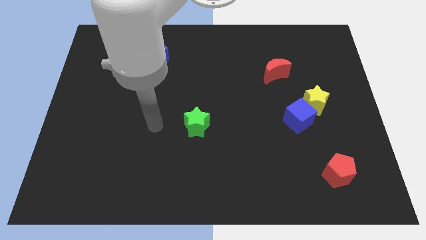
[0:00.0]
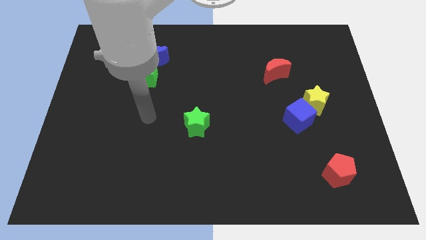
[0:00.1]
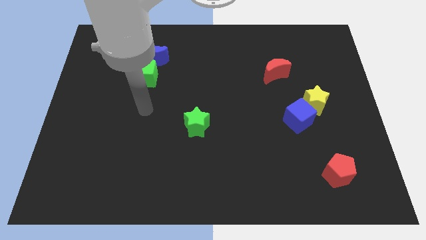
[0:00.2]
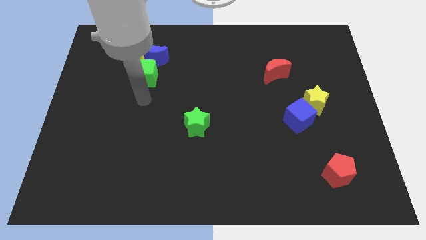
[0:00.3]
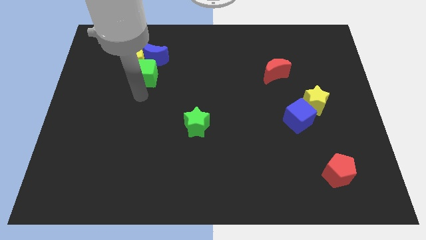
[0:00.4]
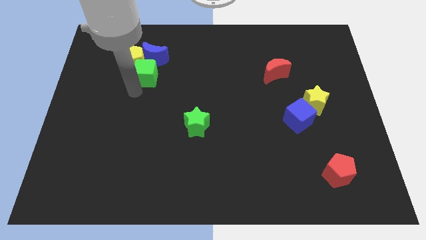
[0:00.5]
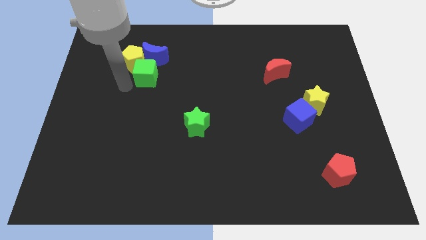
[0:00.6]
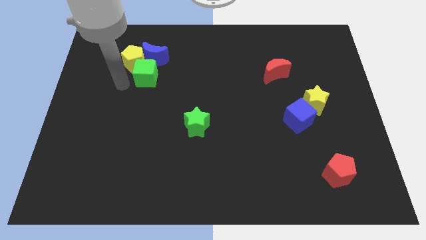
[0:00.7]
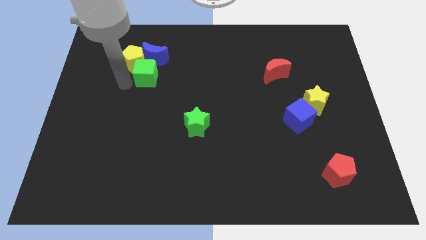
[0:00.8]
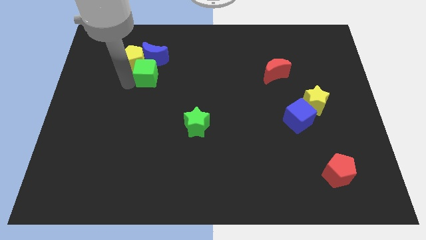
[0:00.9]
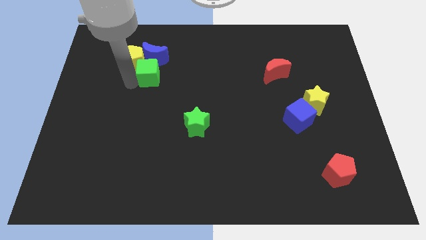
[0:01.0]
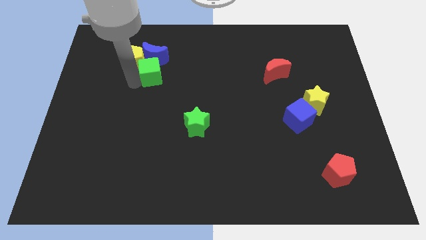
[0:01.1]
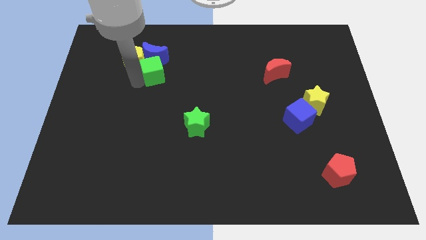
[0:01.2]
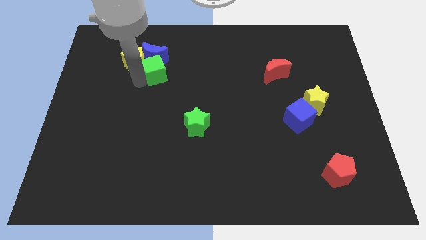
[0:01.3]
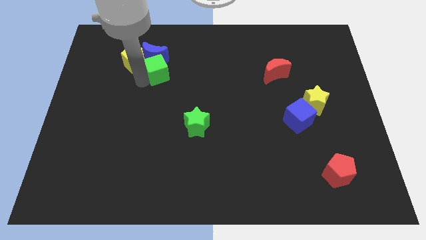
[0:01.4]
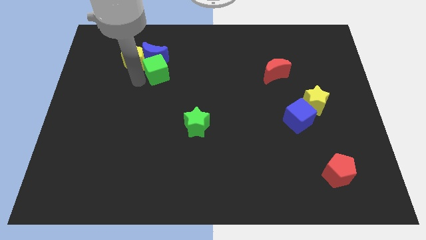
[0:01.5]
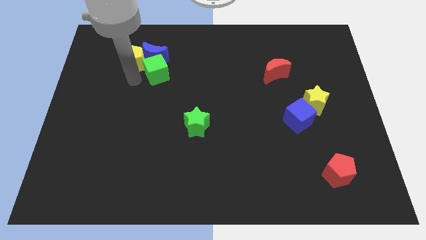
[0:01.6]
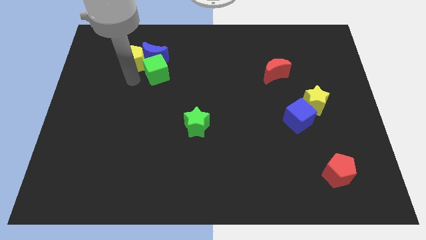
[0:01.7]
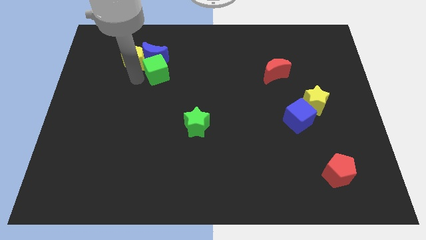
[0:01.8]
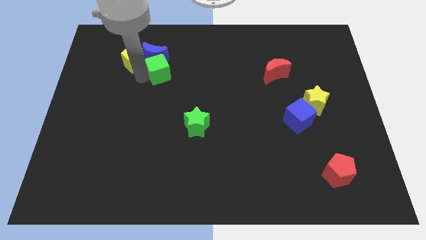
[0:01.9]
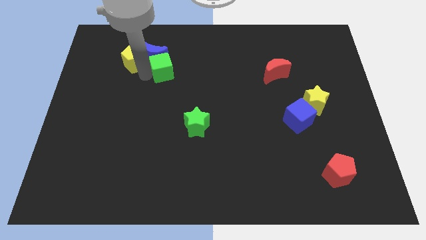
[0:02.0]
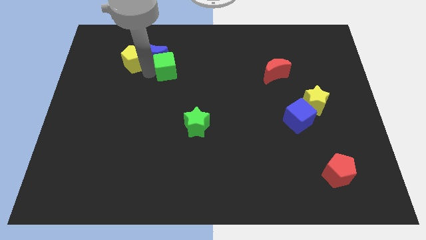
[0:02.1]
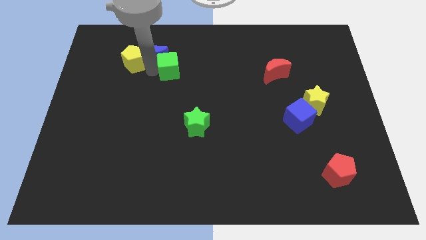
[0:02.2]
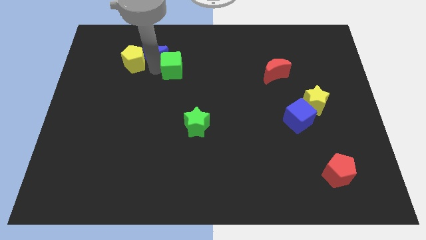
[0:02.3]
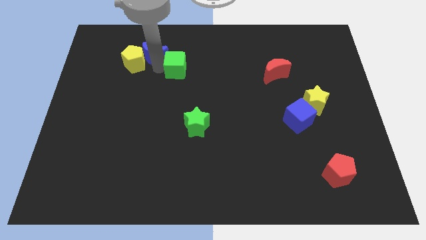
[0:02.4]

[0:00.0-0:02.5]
push the green cube a little to the right

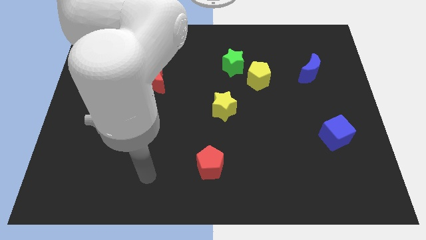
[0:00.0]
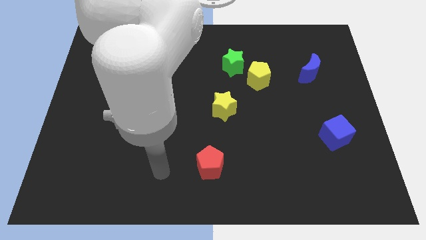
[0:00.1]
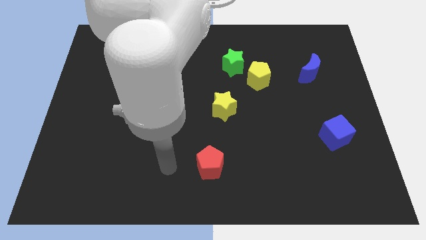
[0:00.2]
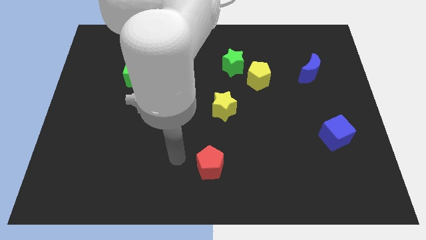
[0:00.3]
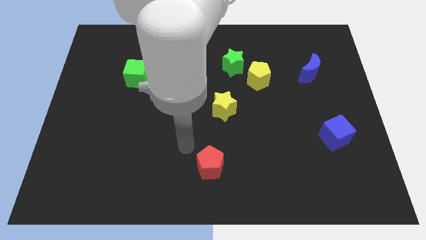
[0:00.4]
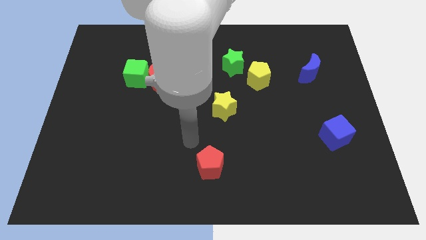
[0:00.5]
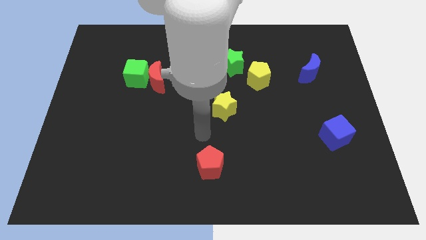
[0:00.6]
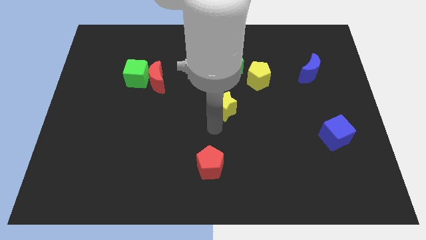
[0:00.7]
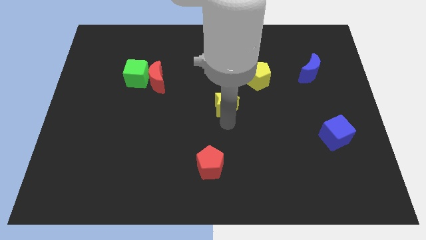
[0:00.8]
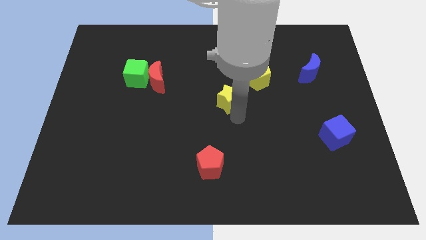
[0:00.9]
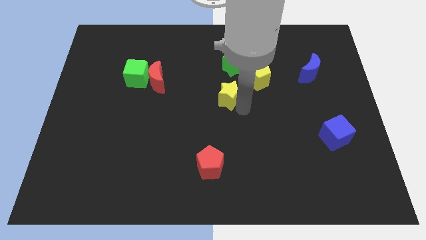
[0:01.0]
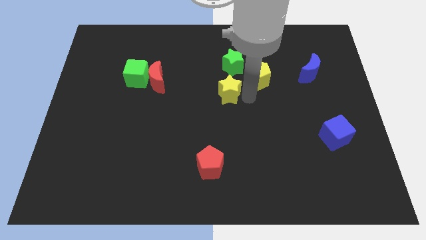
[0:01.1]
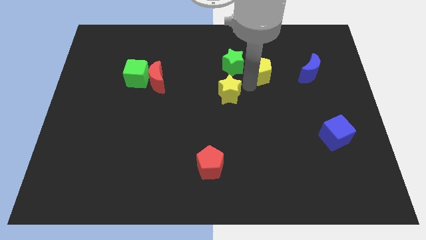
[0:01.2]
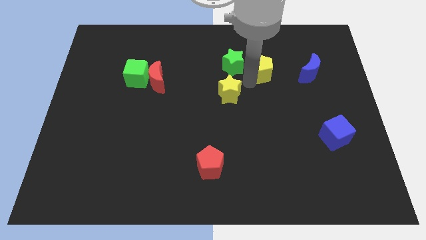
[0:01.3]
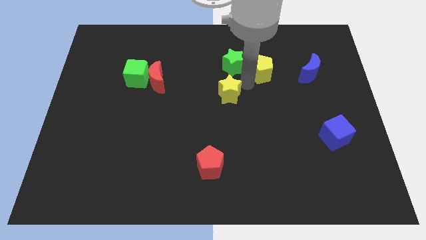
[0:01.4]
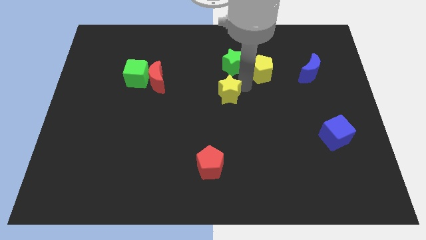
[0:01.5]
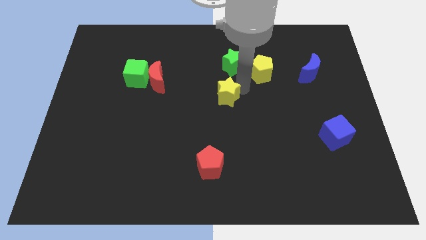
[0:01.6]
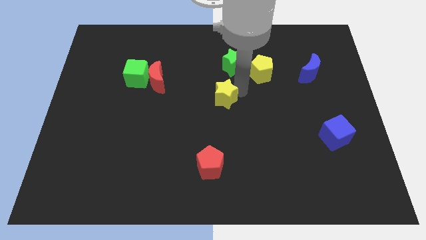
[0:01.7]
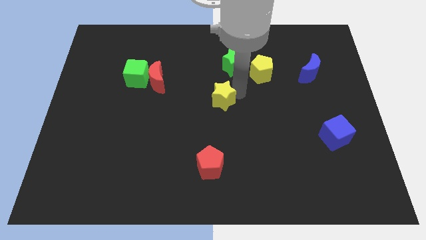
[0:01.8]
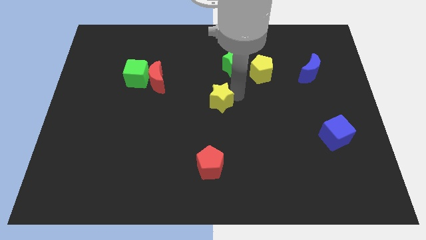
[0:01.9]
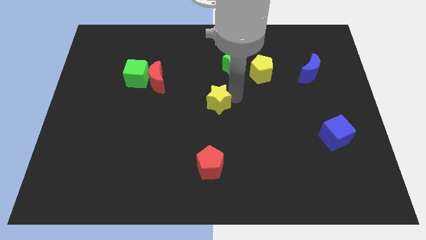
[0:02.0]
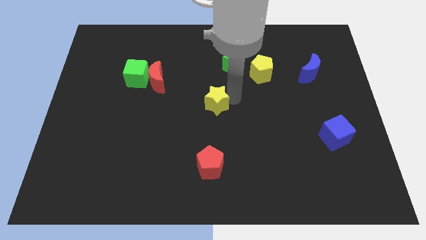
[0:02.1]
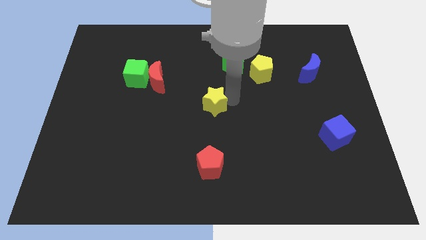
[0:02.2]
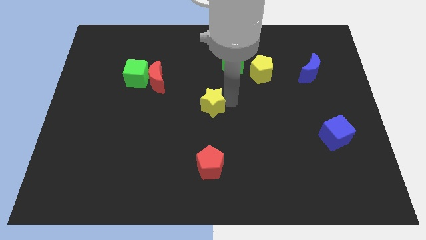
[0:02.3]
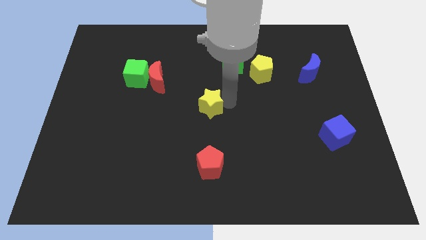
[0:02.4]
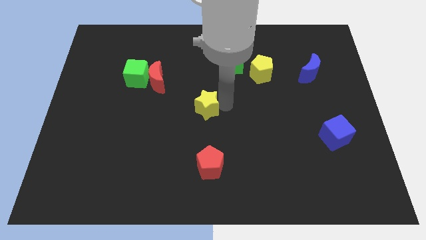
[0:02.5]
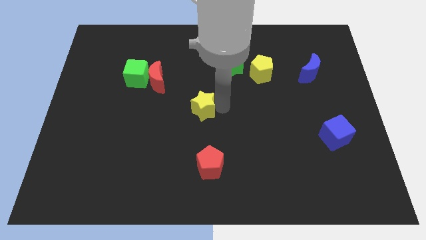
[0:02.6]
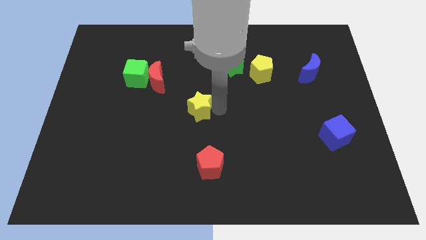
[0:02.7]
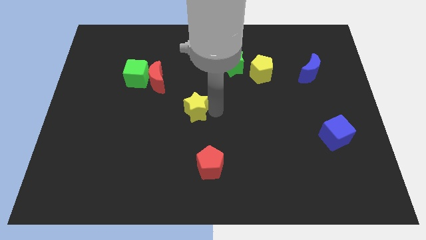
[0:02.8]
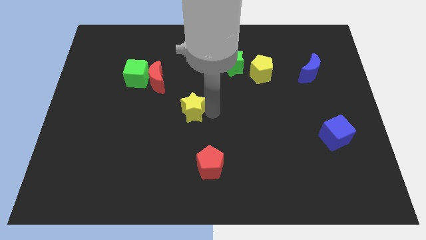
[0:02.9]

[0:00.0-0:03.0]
slide the yellow star somewhat to the left

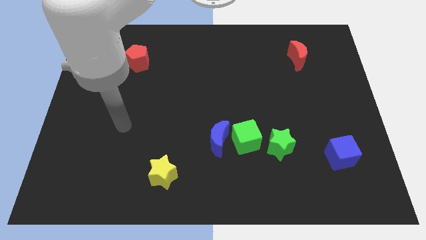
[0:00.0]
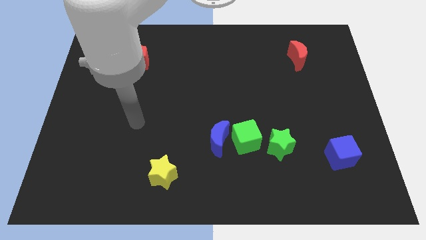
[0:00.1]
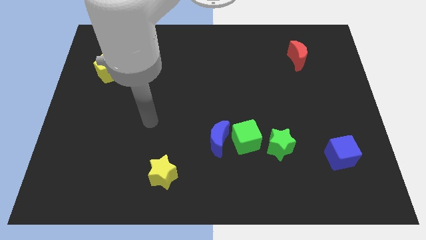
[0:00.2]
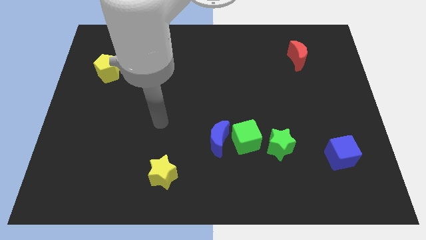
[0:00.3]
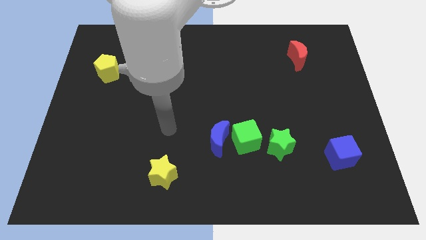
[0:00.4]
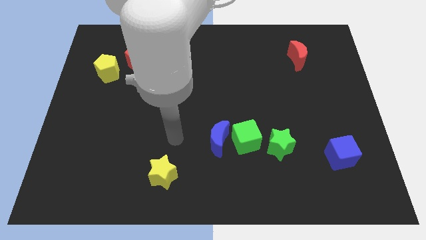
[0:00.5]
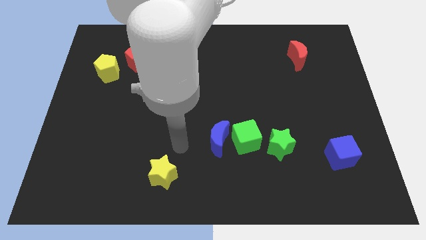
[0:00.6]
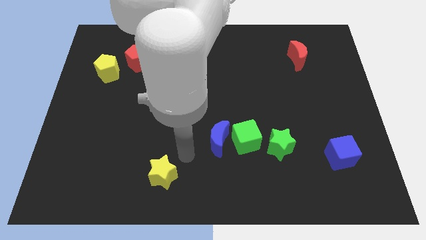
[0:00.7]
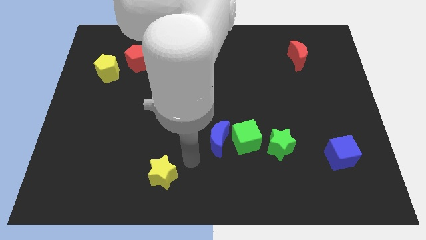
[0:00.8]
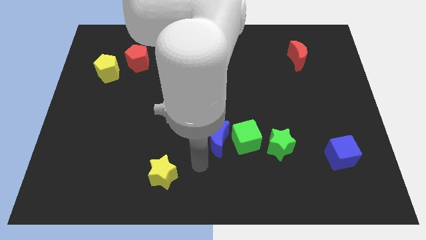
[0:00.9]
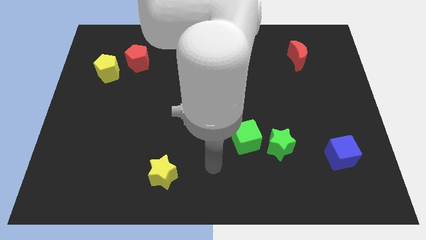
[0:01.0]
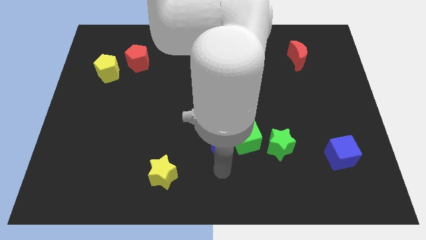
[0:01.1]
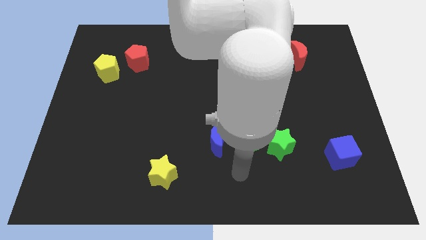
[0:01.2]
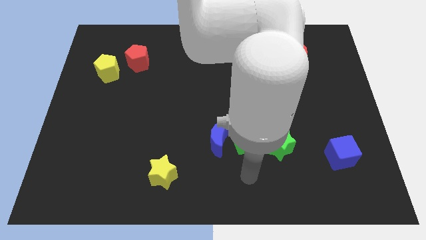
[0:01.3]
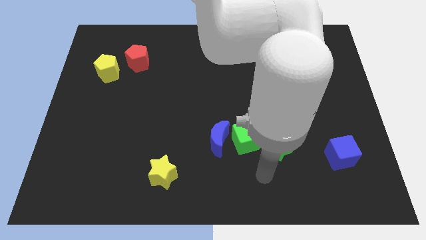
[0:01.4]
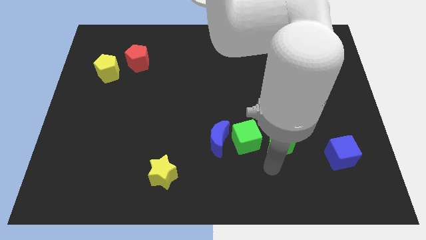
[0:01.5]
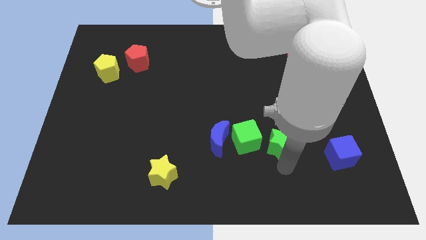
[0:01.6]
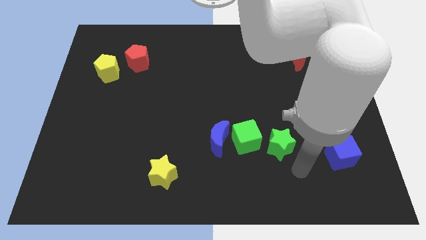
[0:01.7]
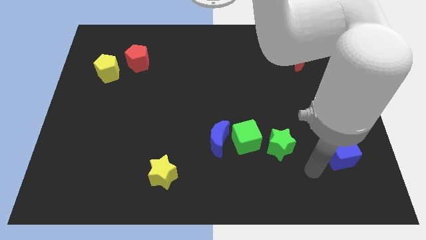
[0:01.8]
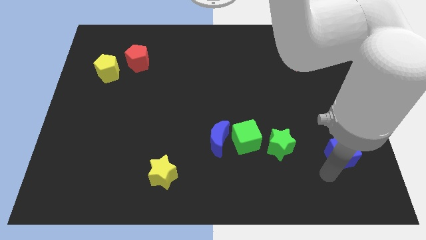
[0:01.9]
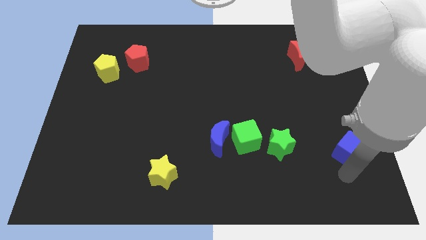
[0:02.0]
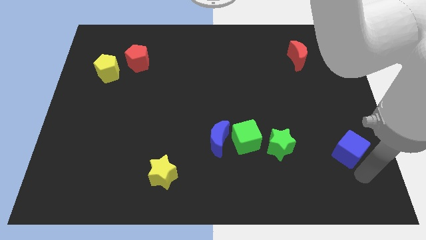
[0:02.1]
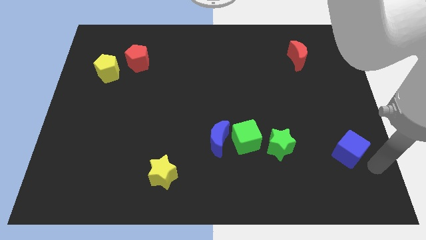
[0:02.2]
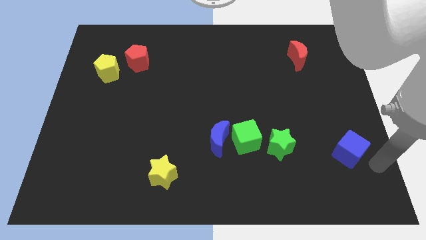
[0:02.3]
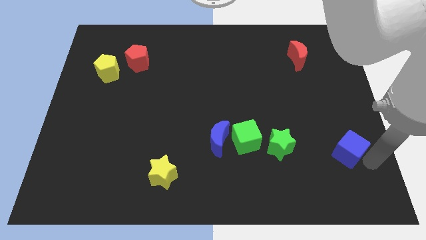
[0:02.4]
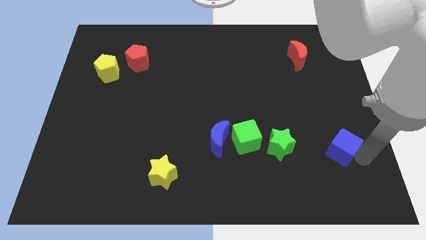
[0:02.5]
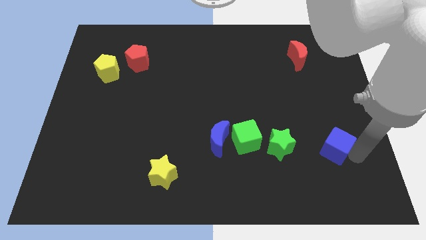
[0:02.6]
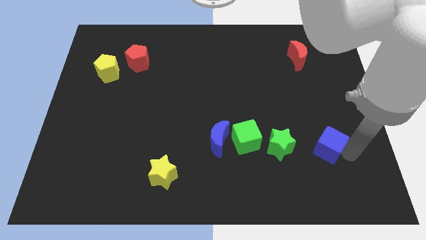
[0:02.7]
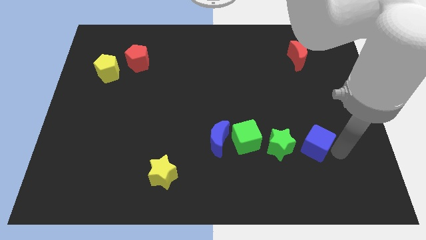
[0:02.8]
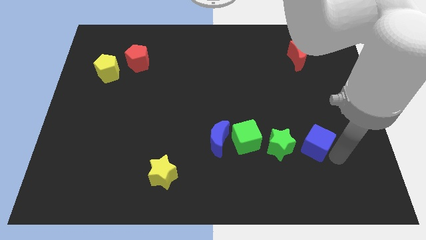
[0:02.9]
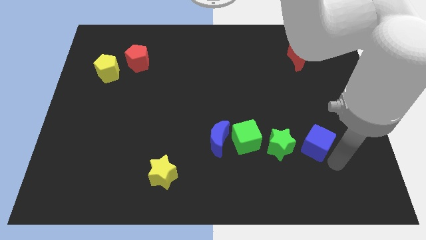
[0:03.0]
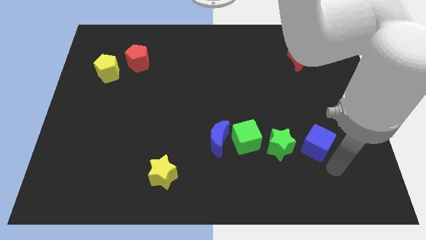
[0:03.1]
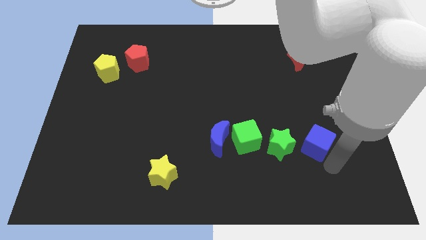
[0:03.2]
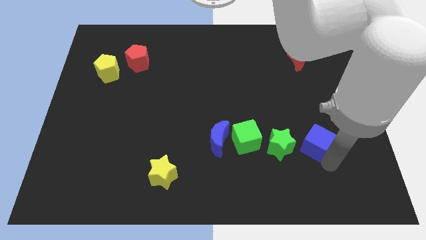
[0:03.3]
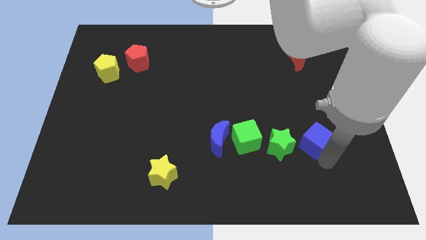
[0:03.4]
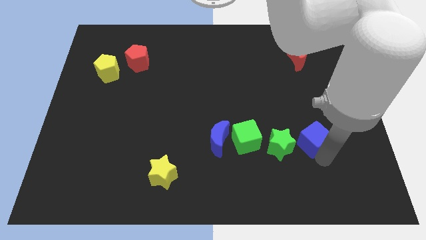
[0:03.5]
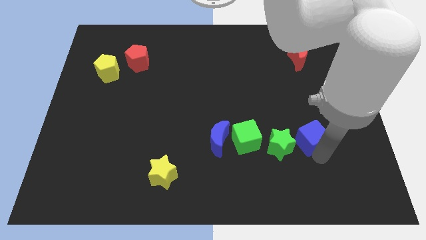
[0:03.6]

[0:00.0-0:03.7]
slightly push the blue cube diagonally upwards and left
